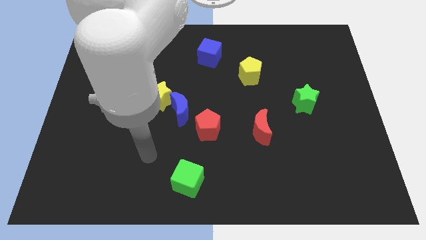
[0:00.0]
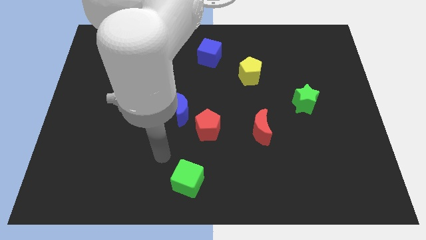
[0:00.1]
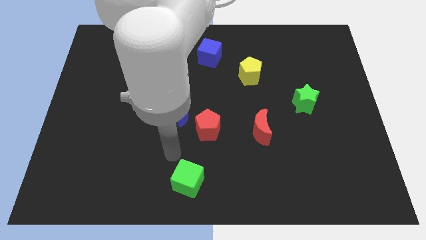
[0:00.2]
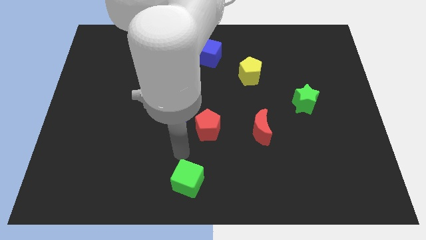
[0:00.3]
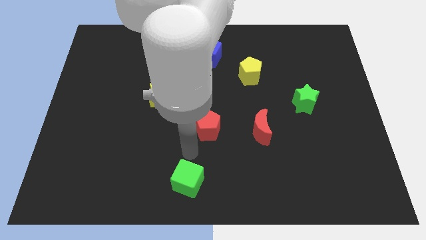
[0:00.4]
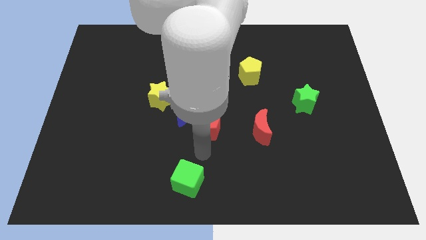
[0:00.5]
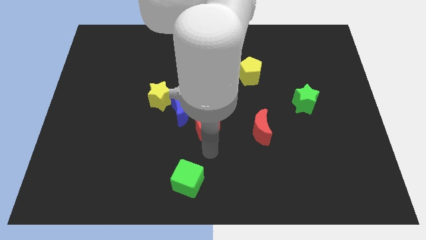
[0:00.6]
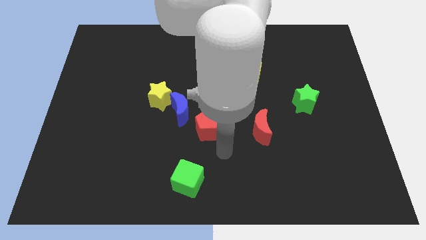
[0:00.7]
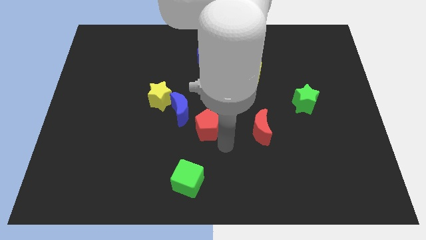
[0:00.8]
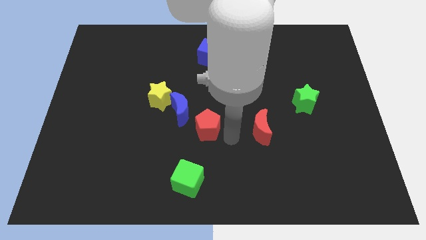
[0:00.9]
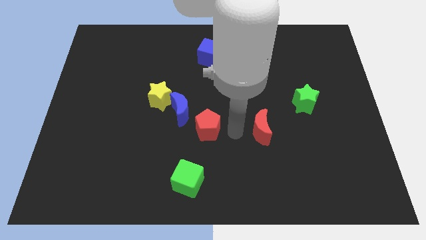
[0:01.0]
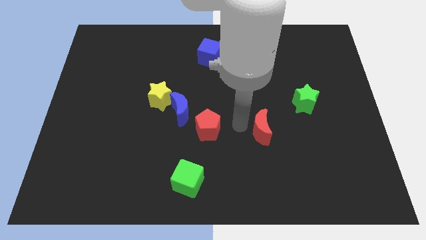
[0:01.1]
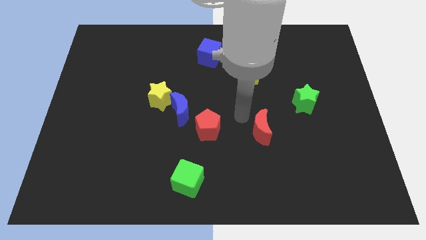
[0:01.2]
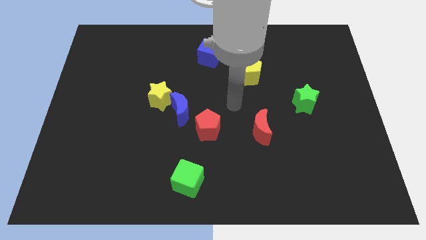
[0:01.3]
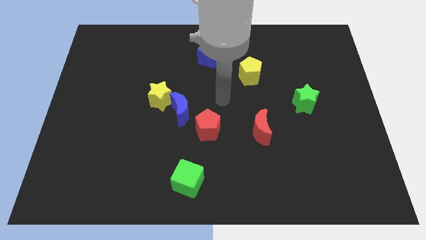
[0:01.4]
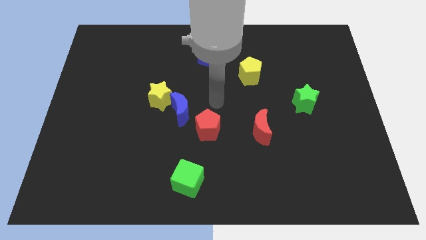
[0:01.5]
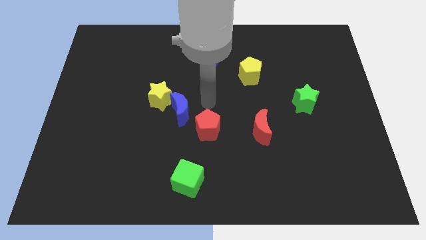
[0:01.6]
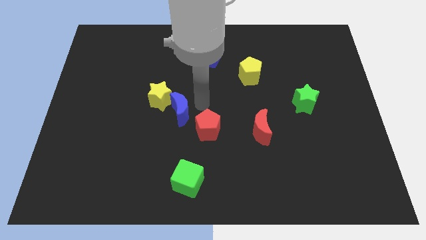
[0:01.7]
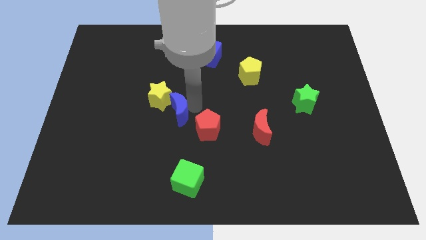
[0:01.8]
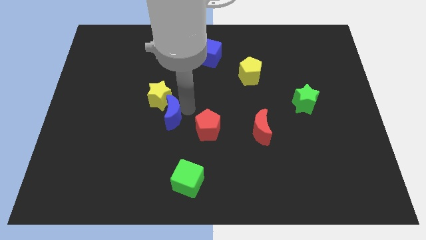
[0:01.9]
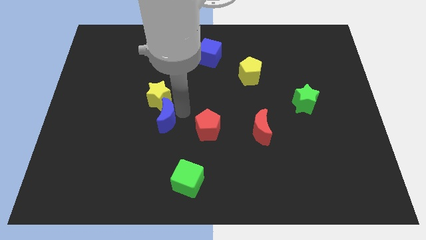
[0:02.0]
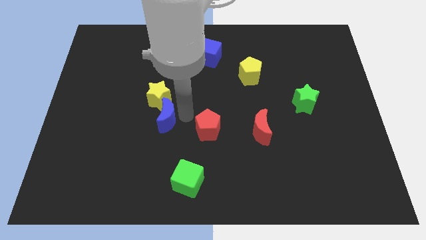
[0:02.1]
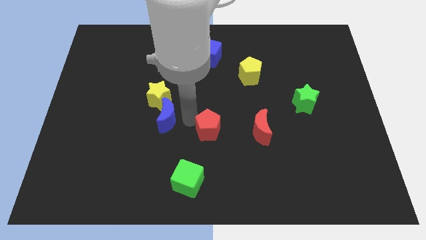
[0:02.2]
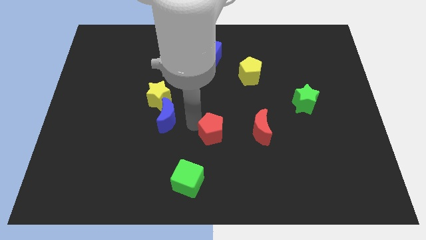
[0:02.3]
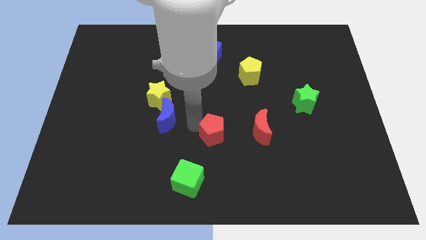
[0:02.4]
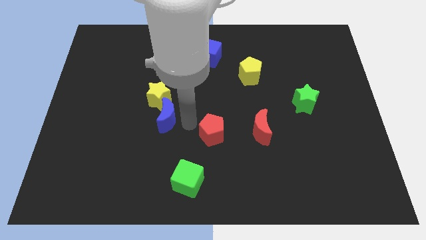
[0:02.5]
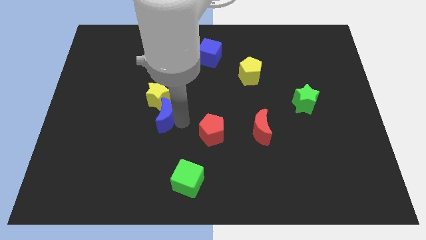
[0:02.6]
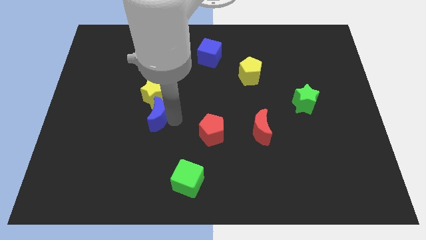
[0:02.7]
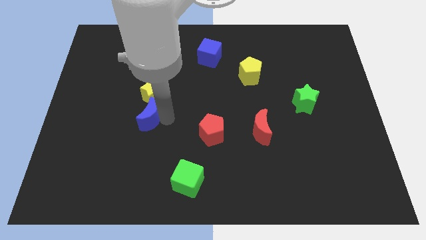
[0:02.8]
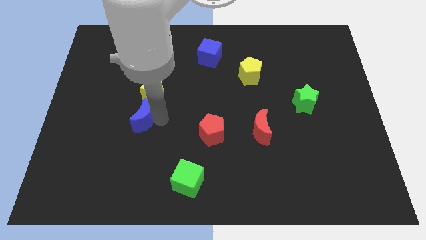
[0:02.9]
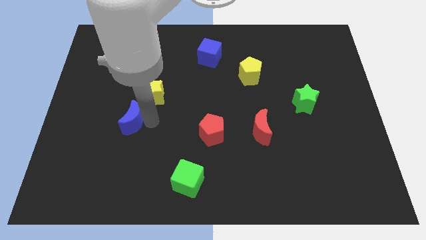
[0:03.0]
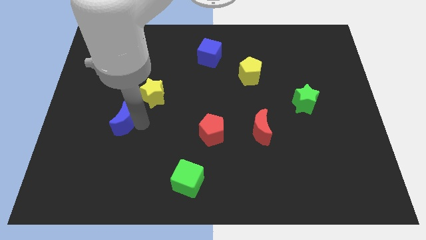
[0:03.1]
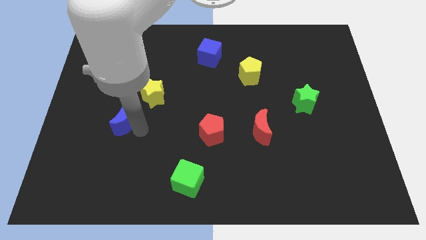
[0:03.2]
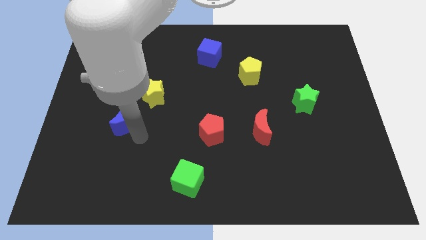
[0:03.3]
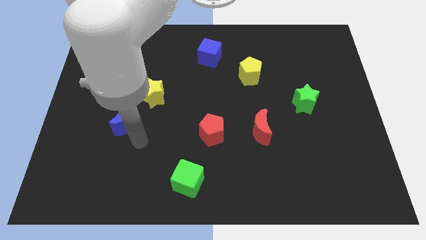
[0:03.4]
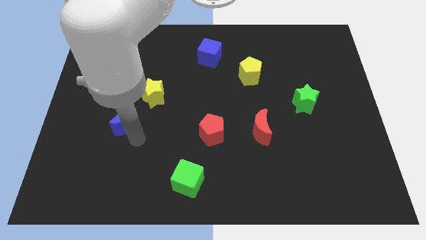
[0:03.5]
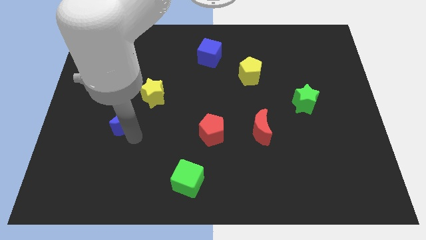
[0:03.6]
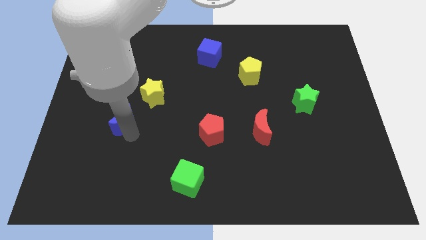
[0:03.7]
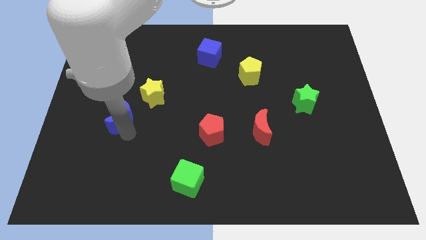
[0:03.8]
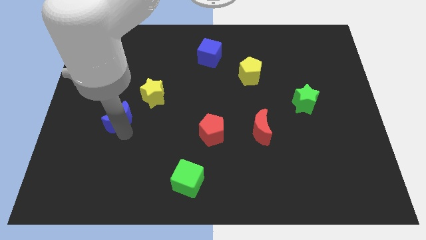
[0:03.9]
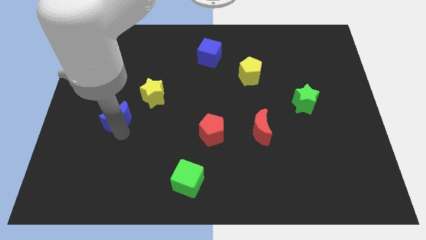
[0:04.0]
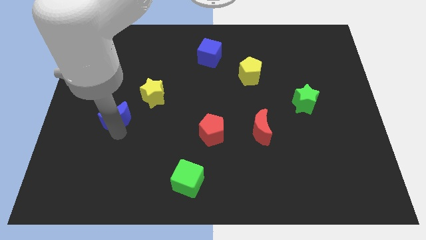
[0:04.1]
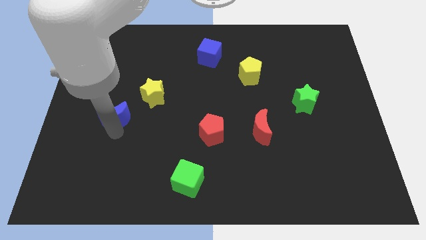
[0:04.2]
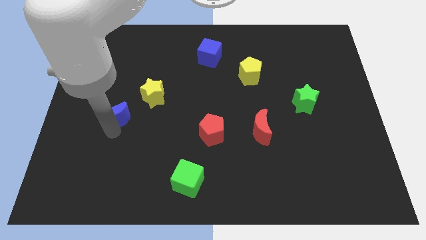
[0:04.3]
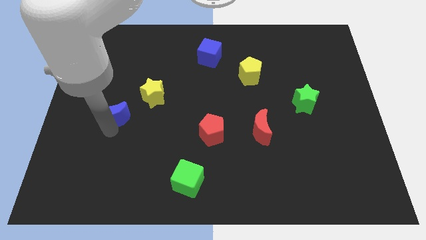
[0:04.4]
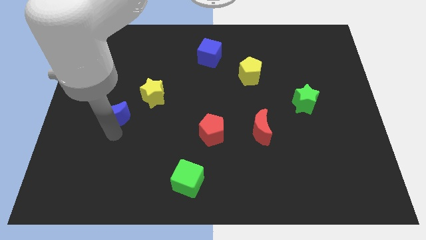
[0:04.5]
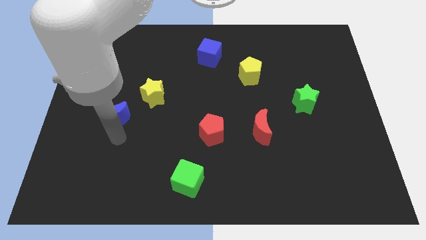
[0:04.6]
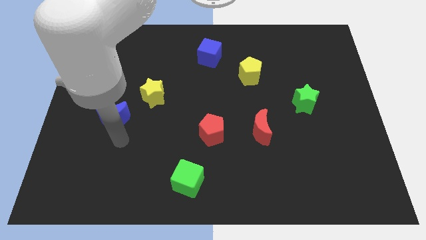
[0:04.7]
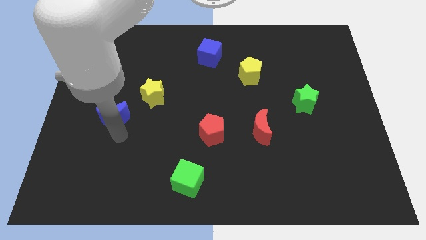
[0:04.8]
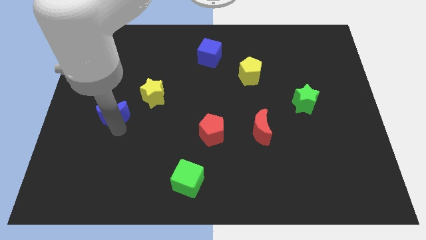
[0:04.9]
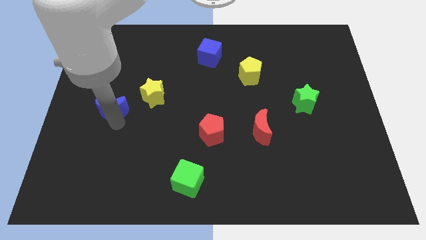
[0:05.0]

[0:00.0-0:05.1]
slide the blue moon to the left of the yellow star

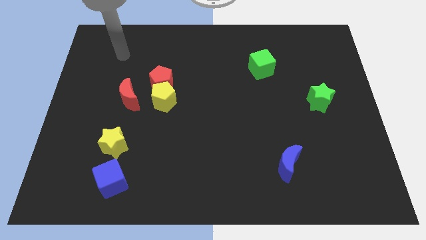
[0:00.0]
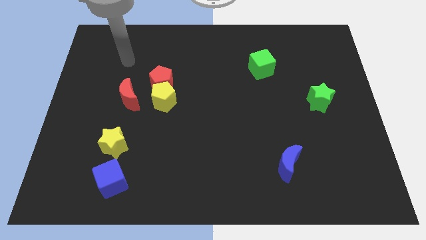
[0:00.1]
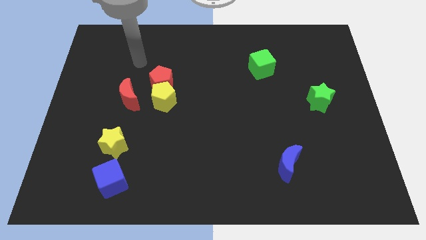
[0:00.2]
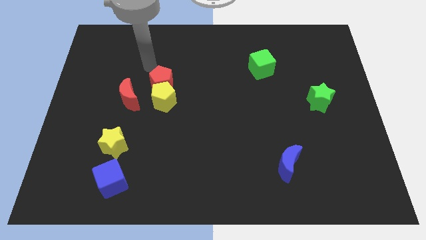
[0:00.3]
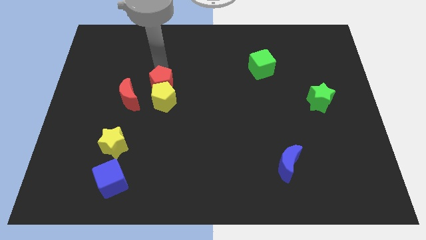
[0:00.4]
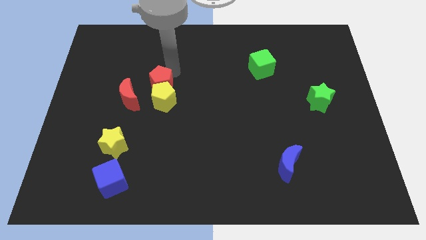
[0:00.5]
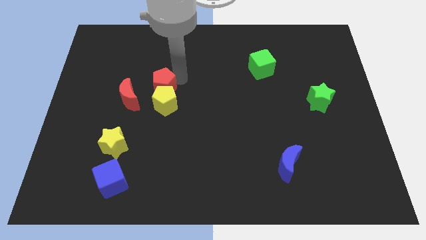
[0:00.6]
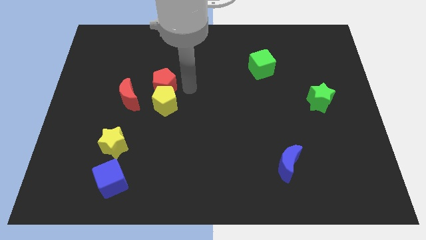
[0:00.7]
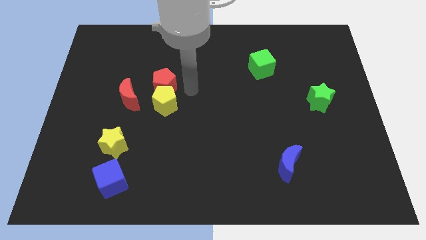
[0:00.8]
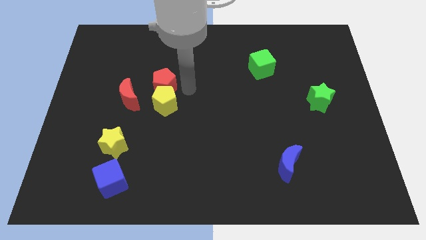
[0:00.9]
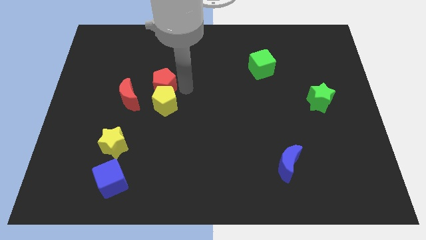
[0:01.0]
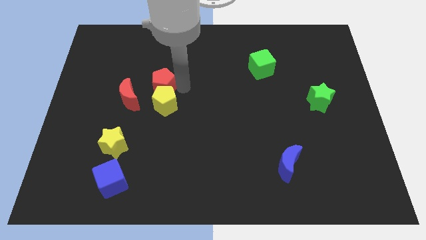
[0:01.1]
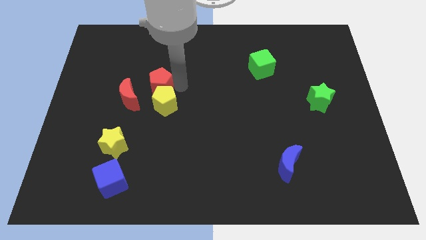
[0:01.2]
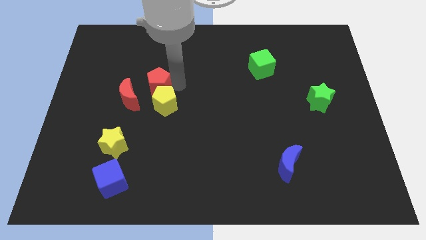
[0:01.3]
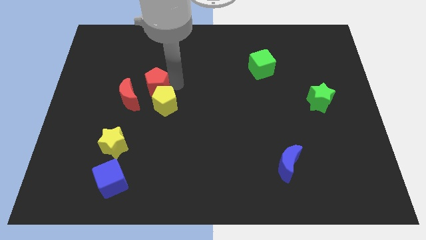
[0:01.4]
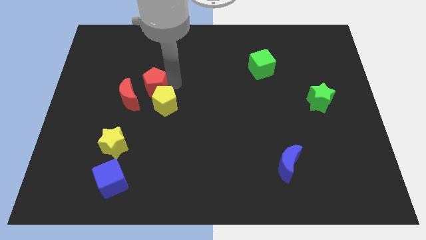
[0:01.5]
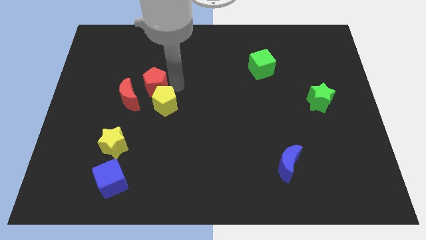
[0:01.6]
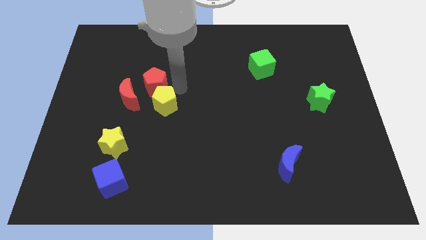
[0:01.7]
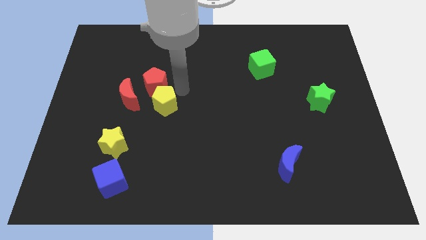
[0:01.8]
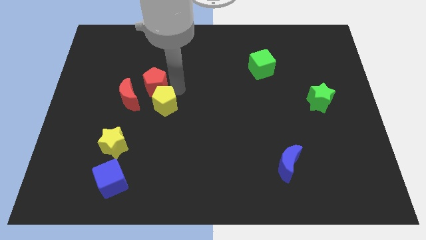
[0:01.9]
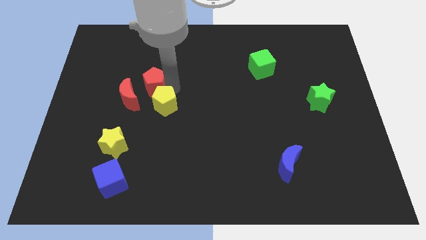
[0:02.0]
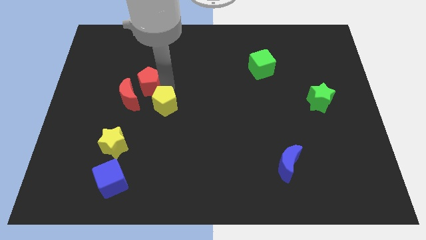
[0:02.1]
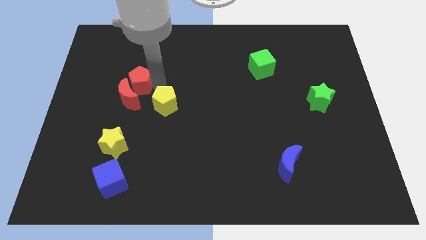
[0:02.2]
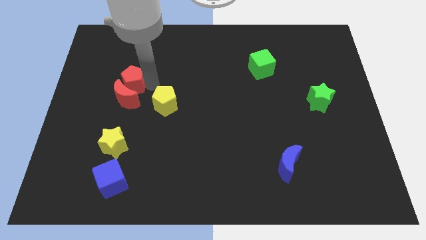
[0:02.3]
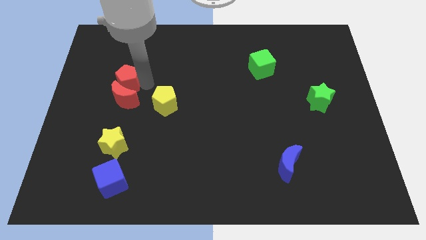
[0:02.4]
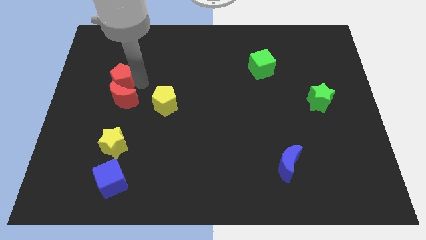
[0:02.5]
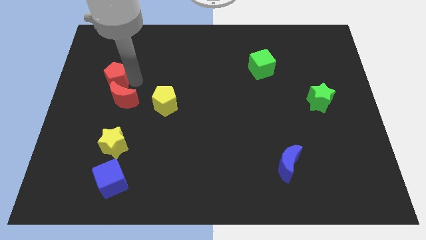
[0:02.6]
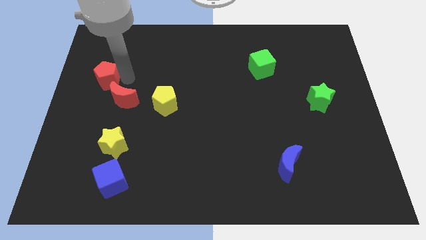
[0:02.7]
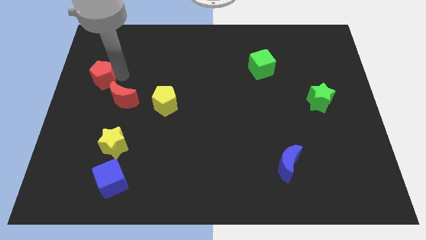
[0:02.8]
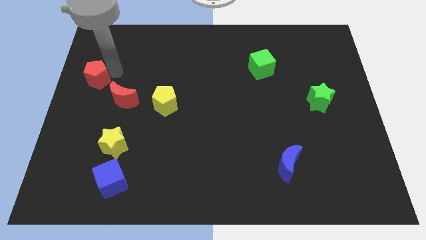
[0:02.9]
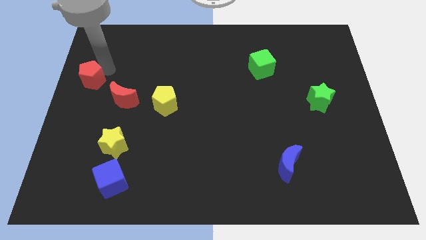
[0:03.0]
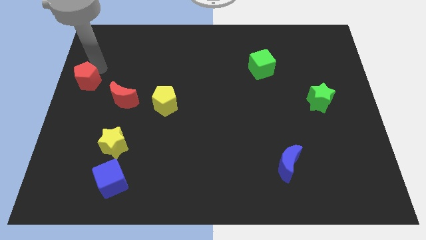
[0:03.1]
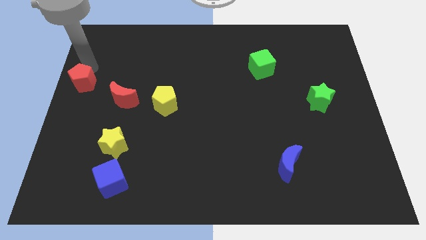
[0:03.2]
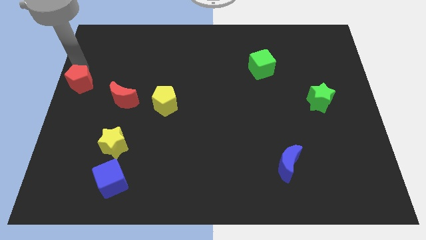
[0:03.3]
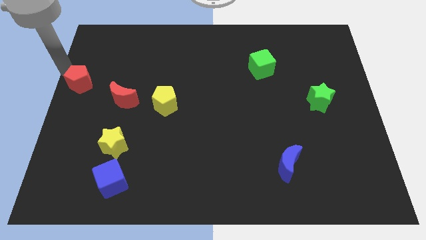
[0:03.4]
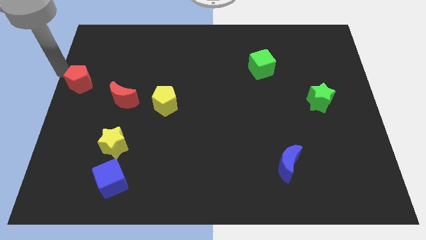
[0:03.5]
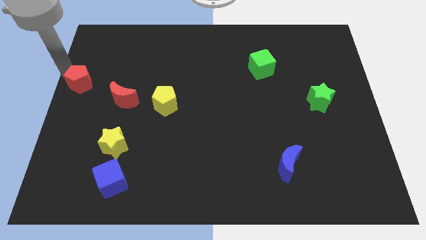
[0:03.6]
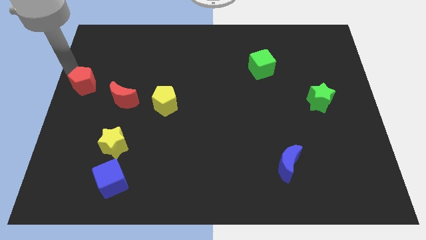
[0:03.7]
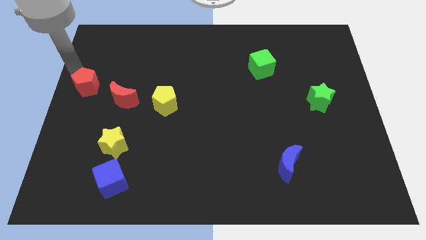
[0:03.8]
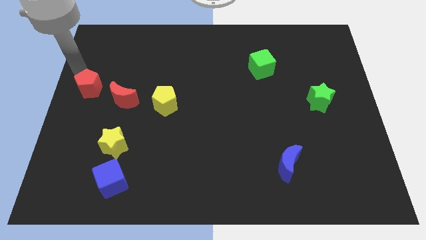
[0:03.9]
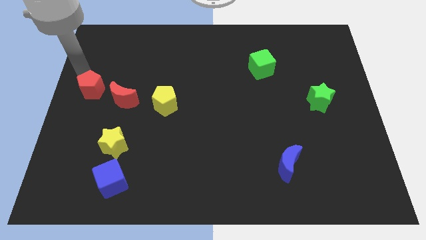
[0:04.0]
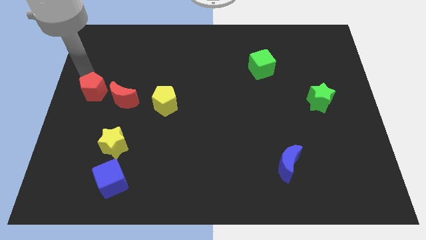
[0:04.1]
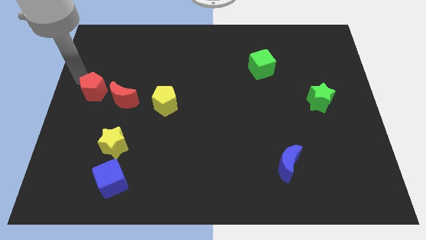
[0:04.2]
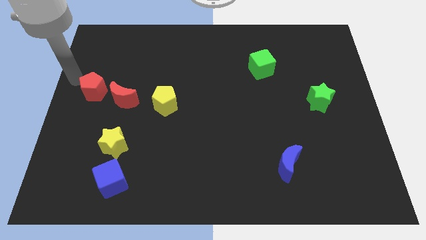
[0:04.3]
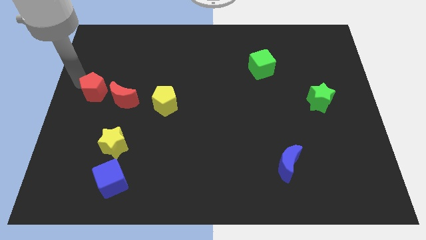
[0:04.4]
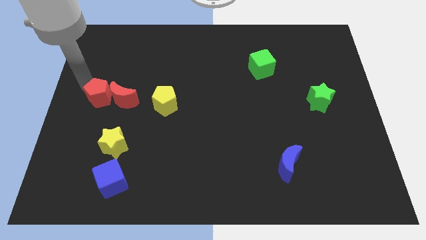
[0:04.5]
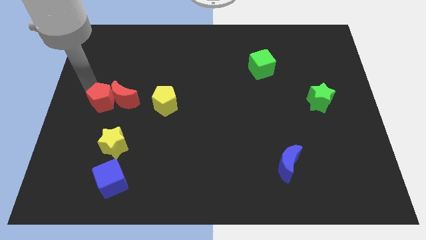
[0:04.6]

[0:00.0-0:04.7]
put the red pentagon just left of the yellow pentagon
